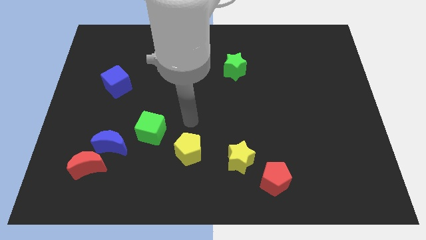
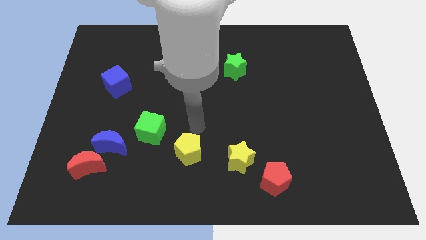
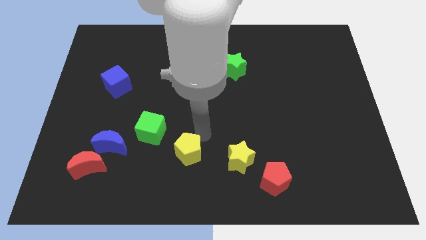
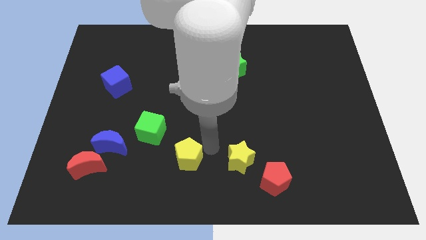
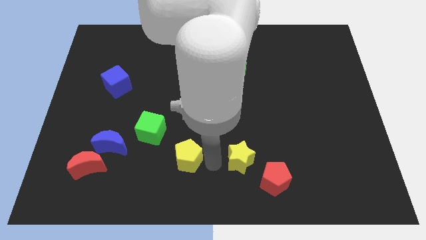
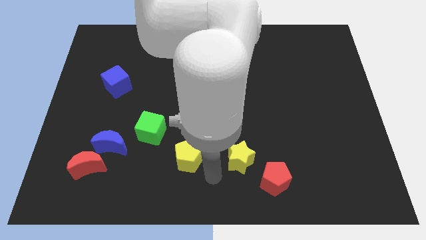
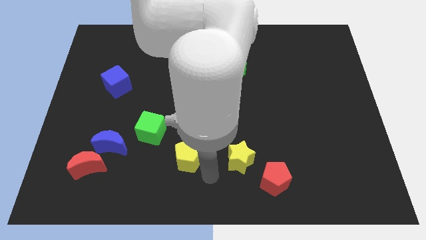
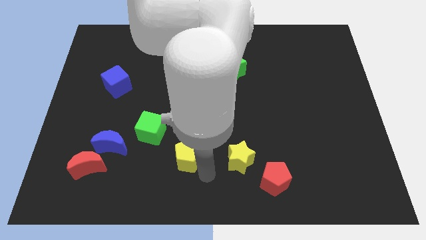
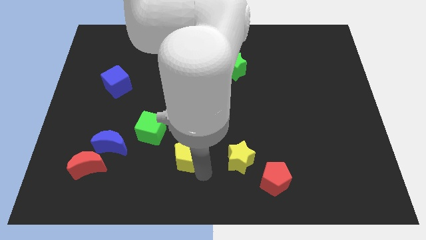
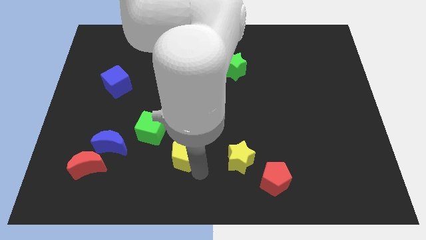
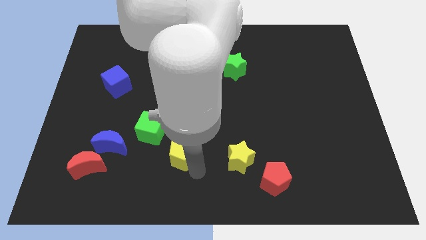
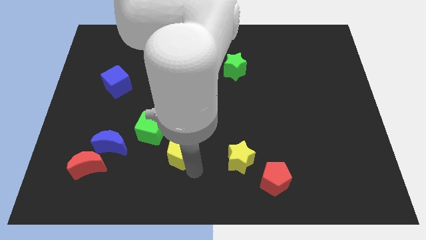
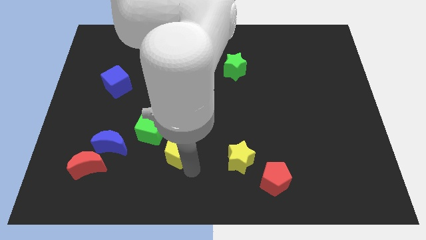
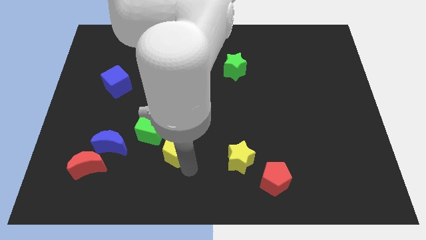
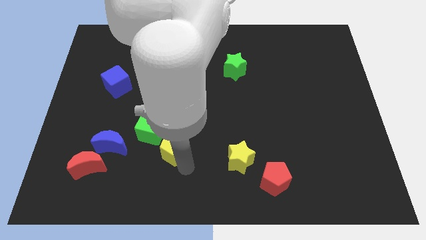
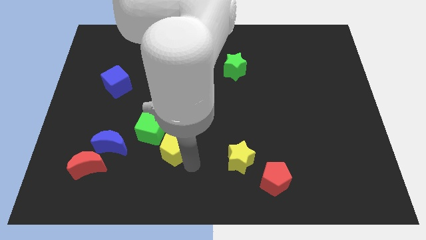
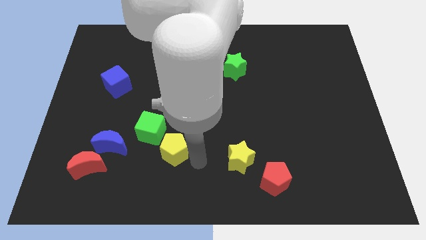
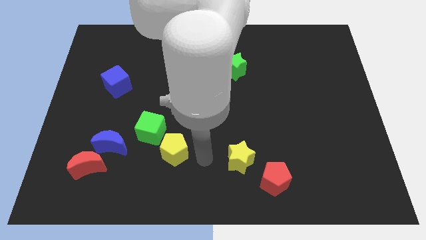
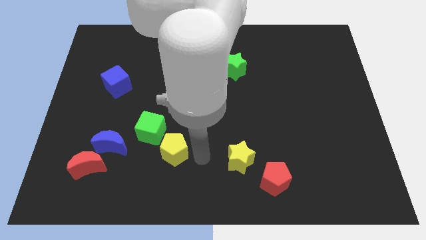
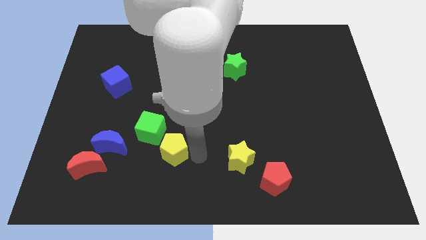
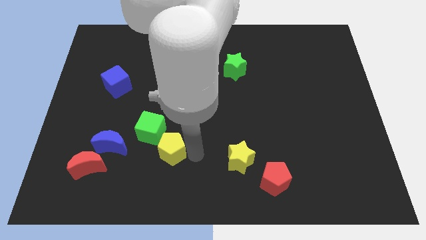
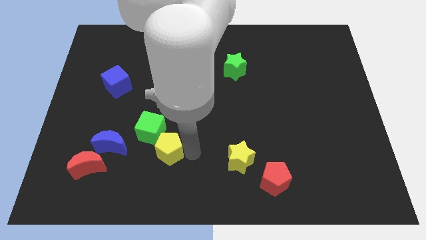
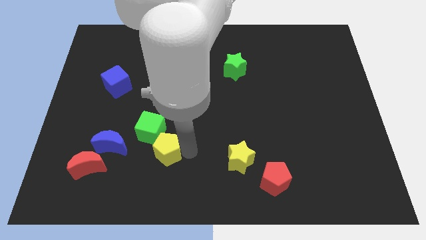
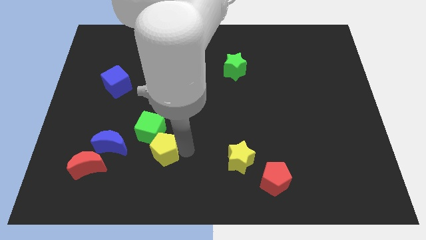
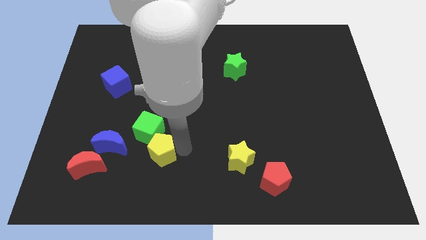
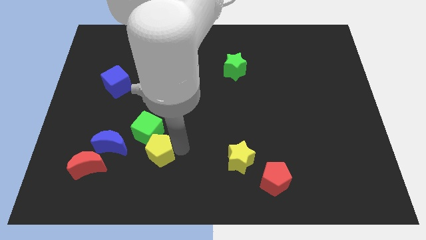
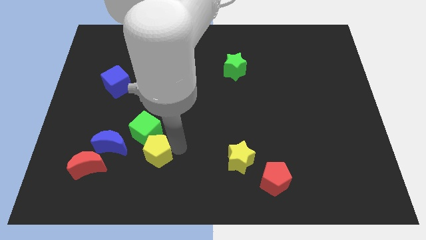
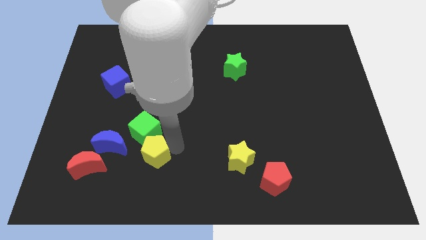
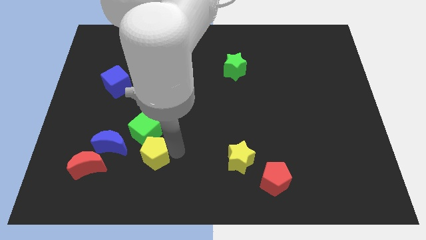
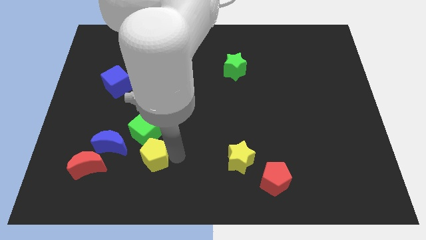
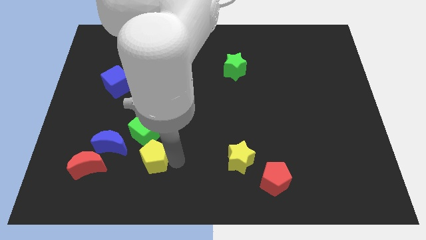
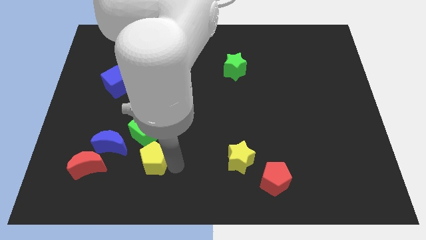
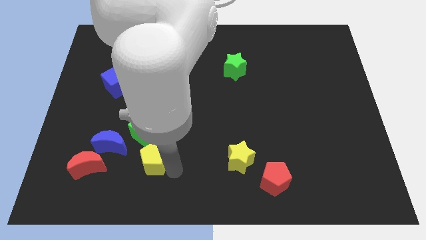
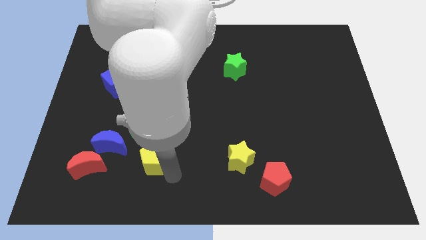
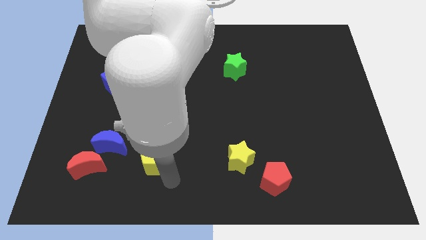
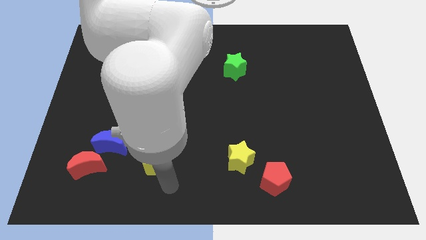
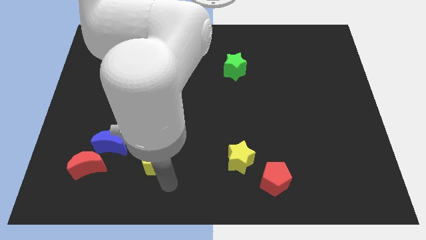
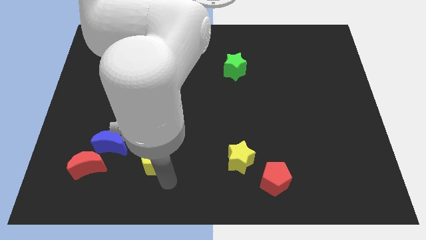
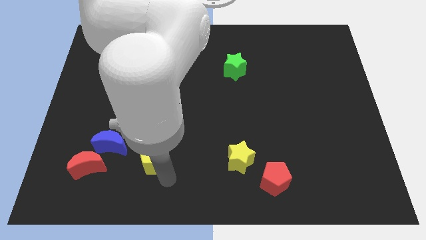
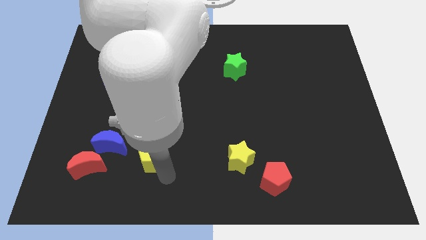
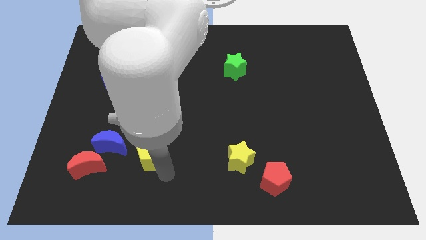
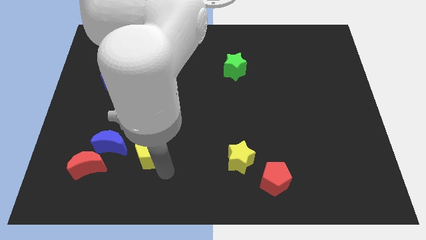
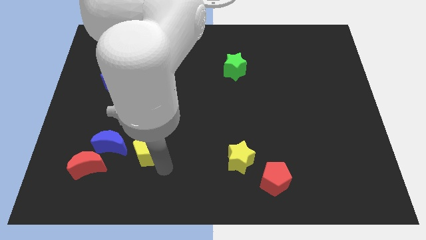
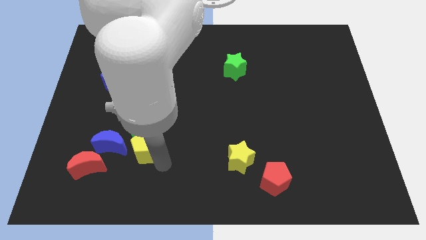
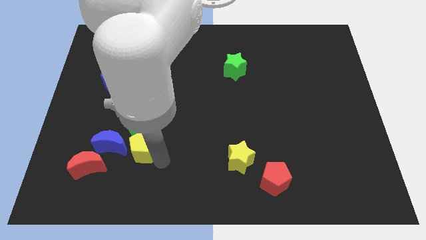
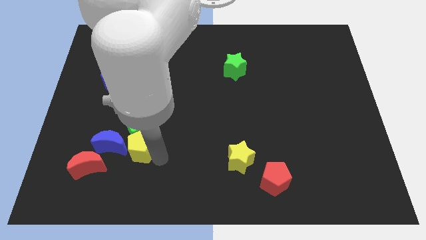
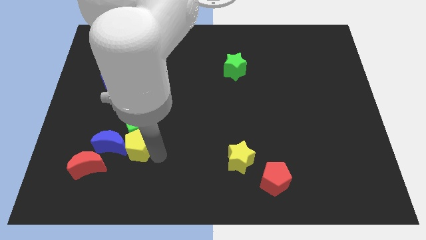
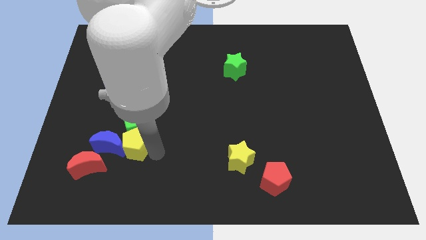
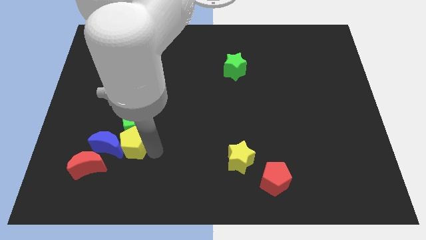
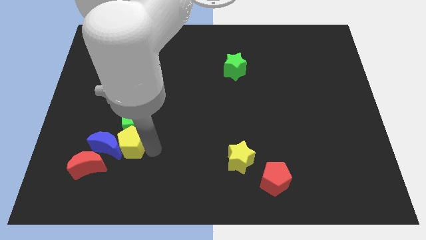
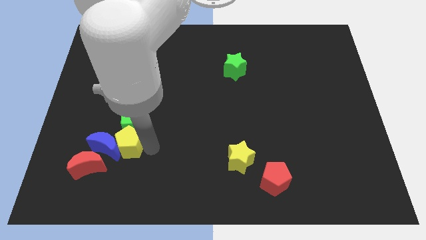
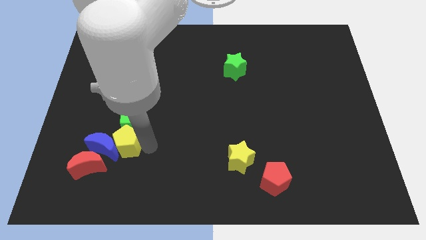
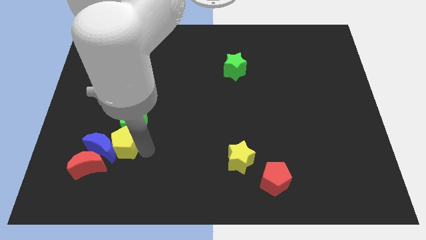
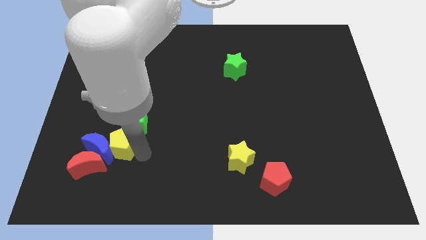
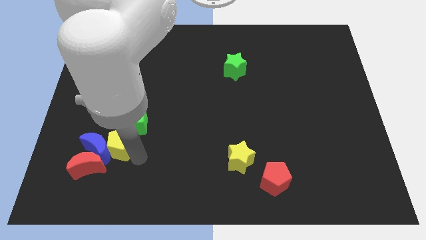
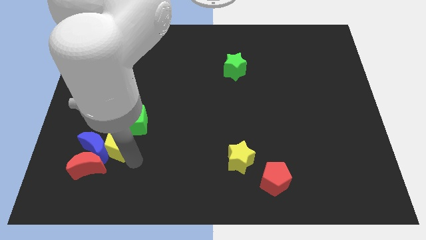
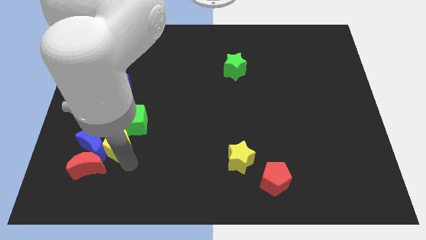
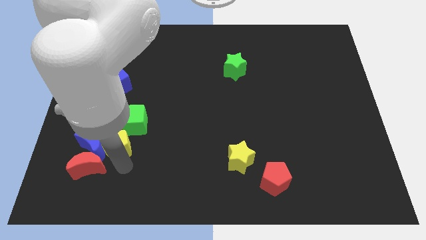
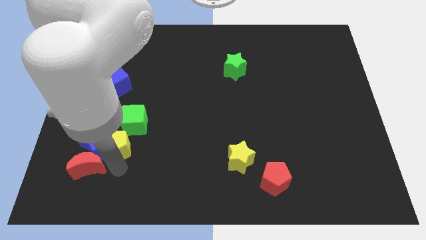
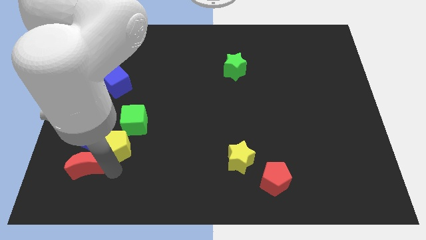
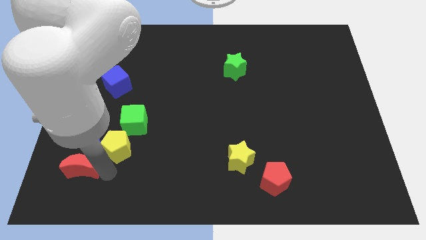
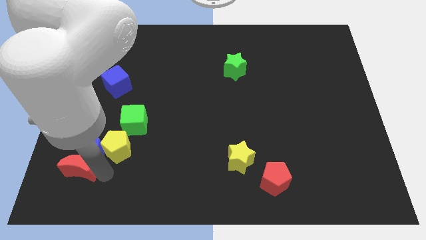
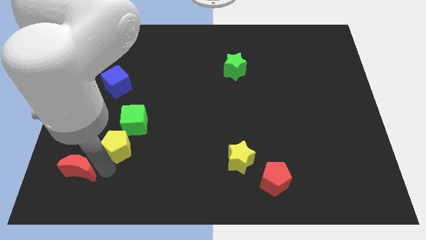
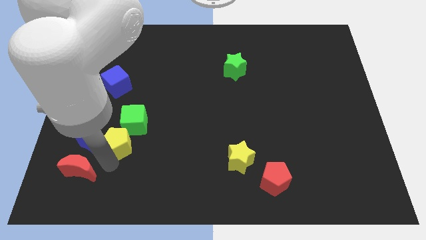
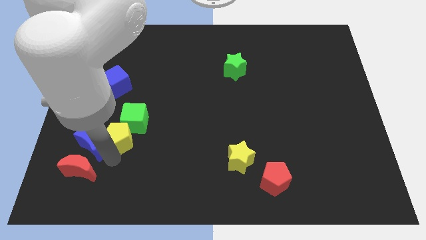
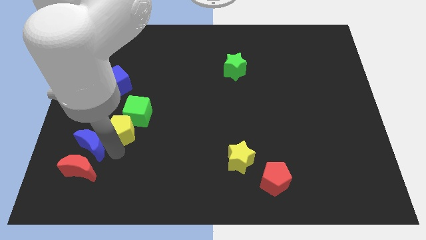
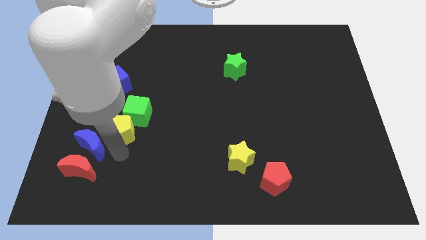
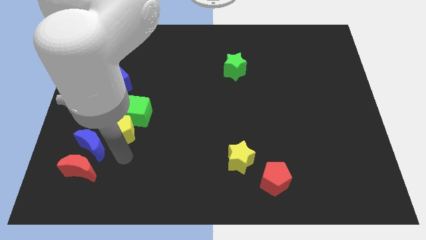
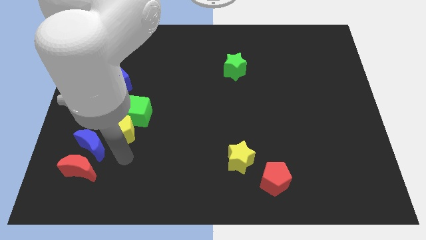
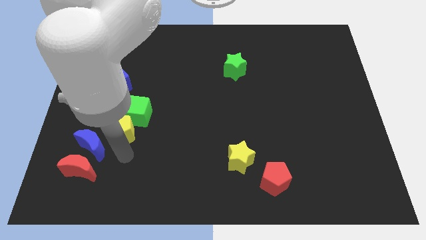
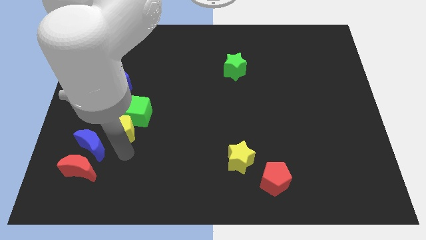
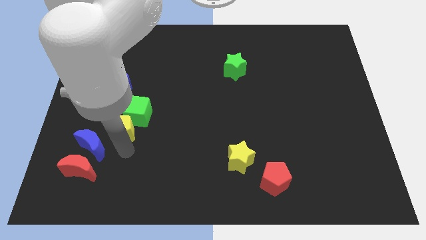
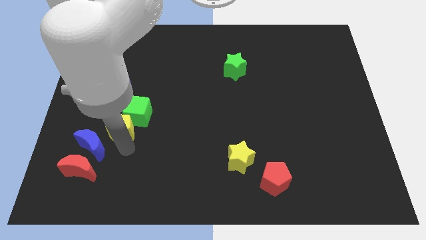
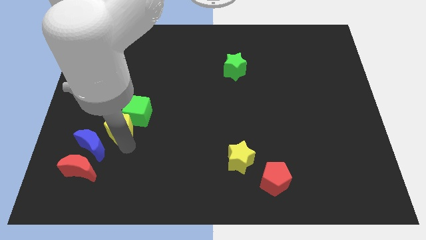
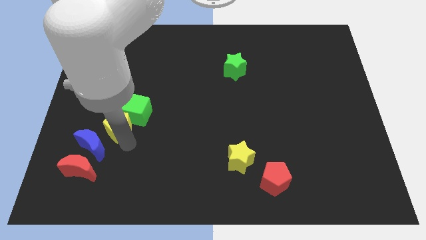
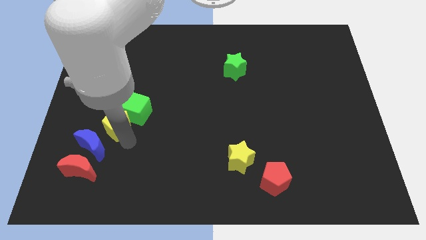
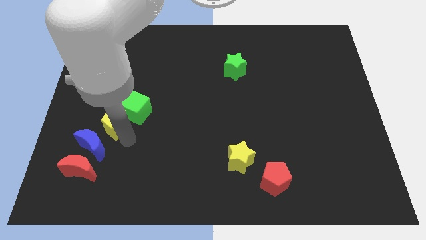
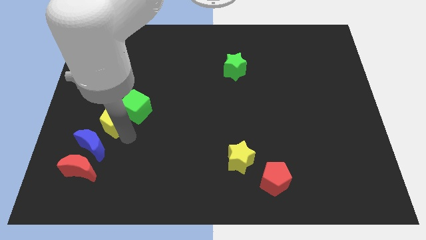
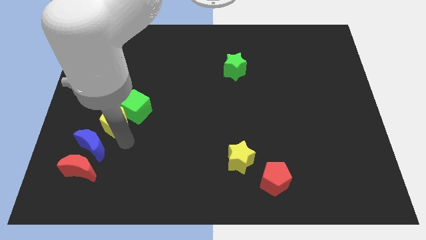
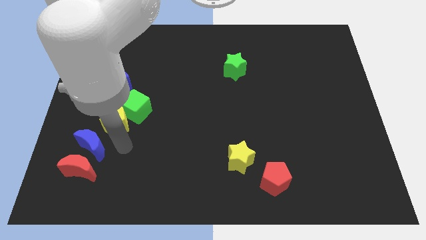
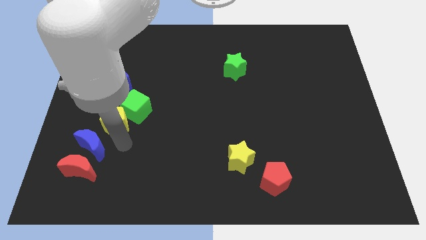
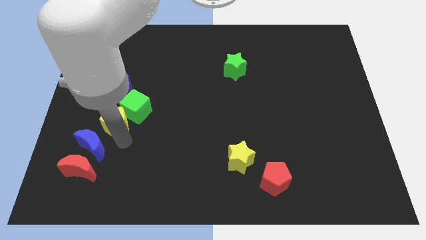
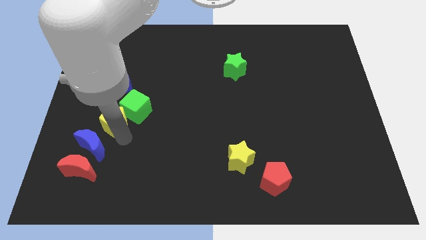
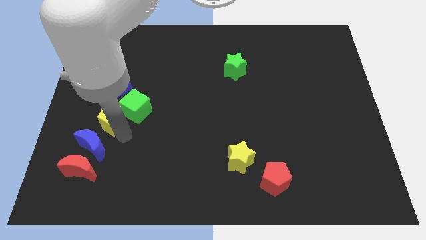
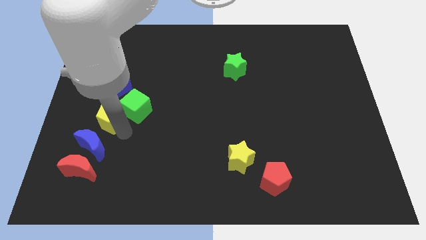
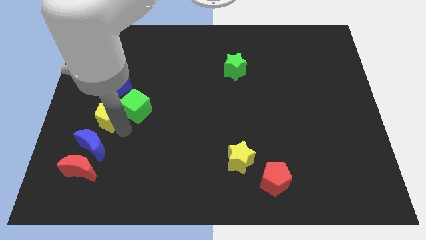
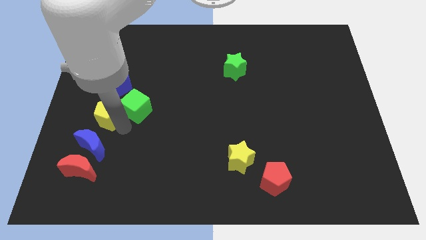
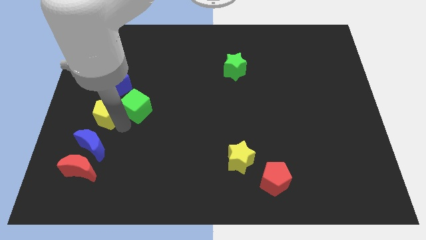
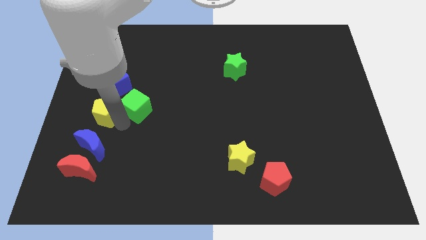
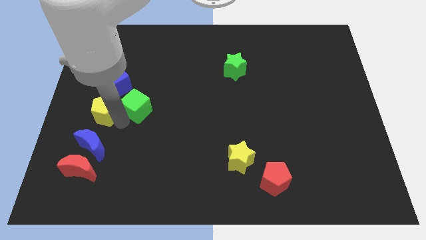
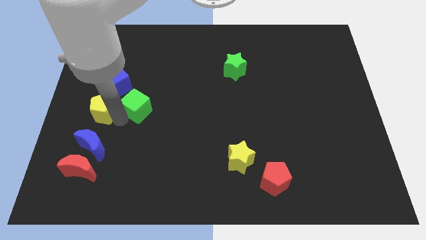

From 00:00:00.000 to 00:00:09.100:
slide the yellow pentagon up and then left
